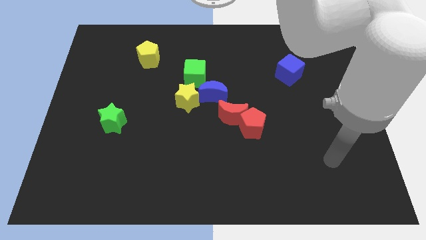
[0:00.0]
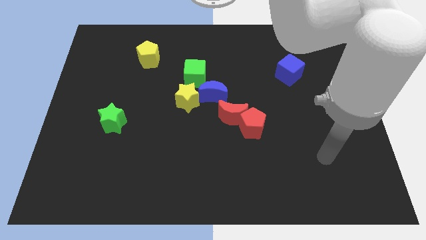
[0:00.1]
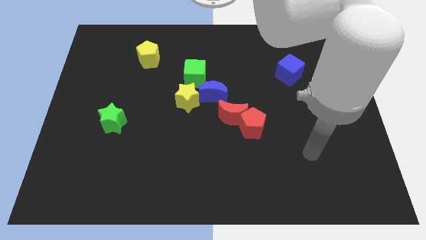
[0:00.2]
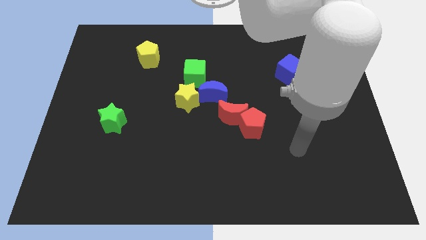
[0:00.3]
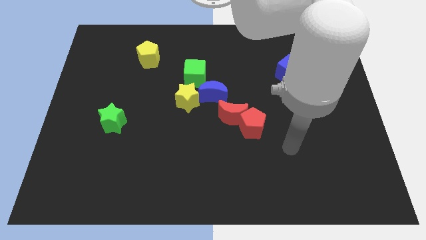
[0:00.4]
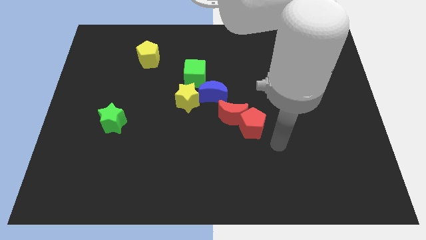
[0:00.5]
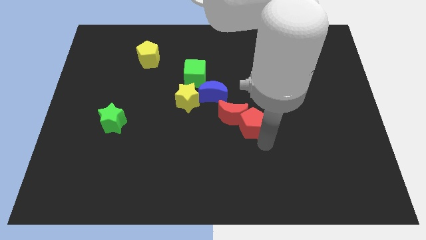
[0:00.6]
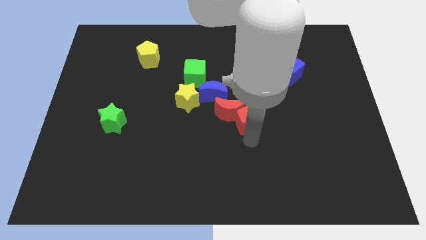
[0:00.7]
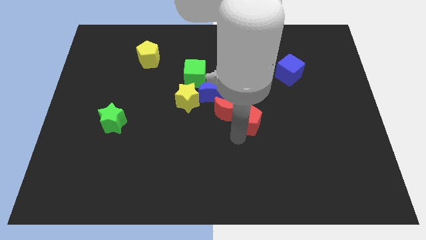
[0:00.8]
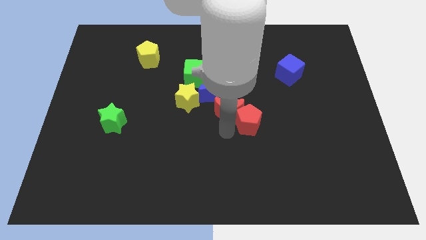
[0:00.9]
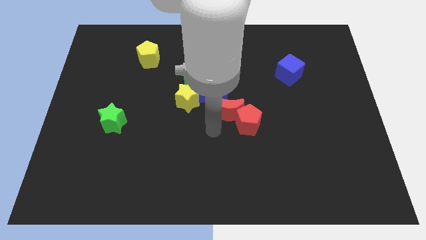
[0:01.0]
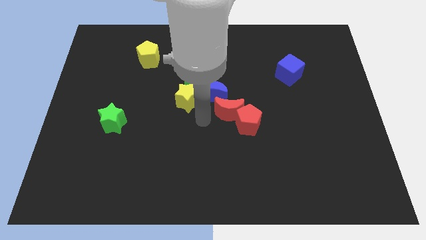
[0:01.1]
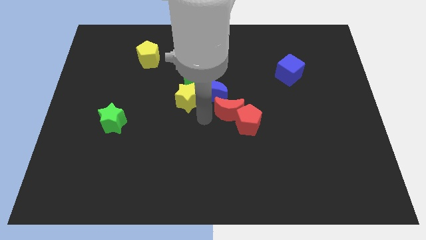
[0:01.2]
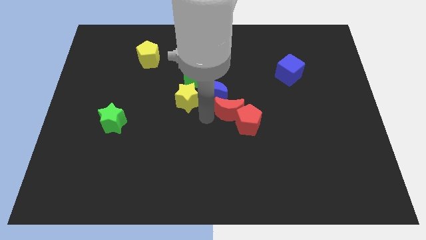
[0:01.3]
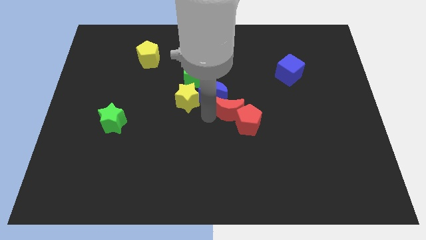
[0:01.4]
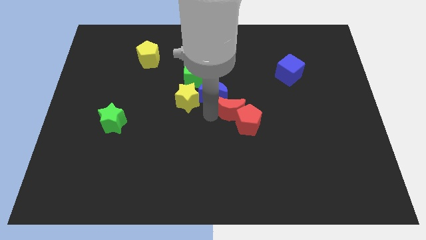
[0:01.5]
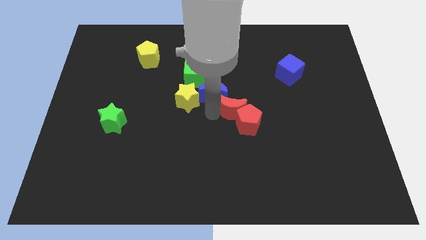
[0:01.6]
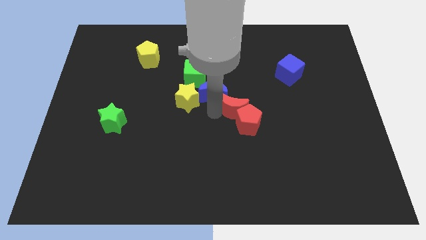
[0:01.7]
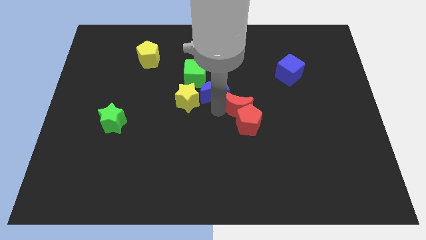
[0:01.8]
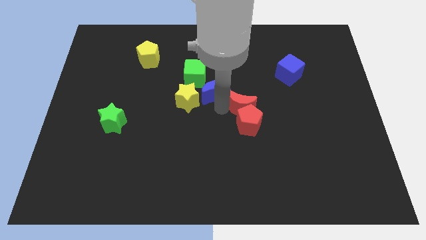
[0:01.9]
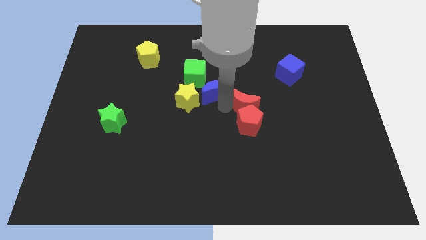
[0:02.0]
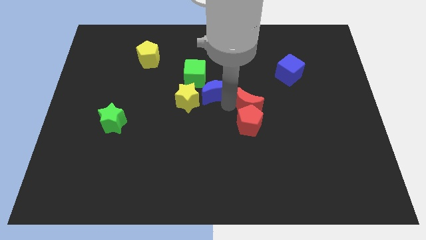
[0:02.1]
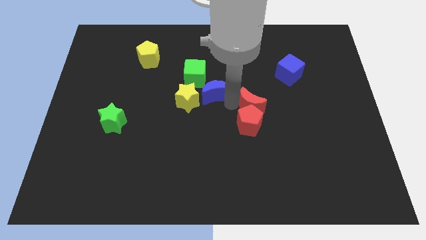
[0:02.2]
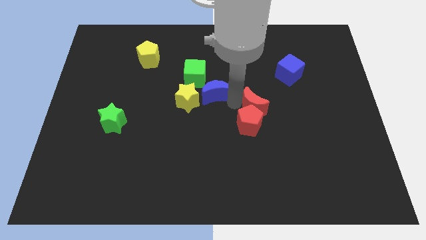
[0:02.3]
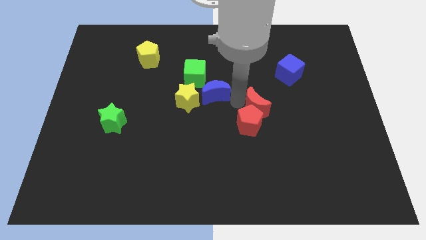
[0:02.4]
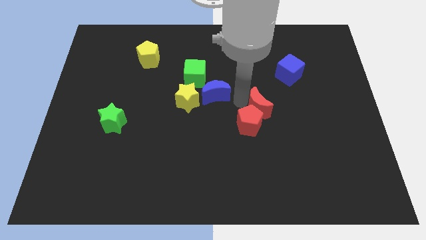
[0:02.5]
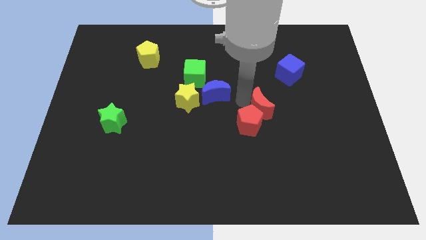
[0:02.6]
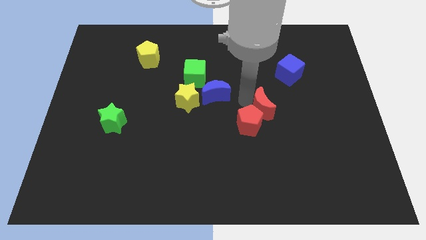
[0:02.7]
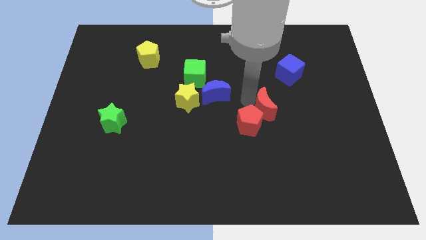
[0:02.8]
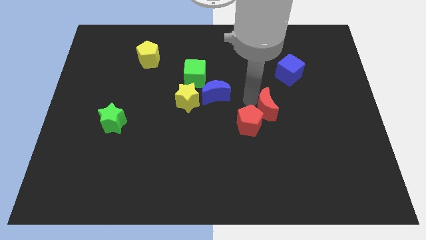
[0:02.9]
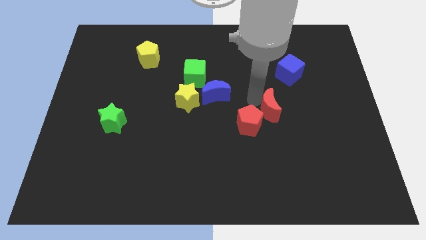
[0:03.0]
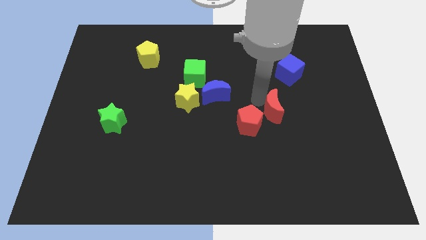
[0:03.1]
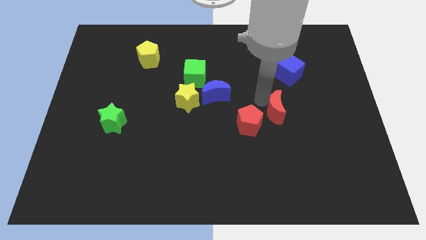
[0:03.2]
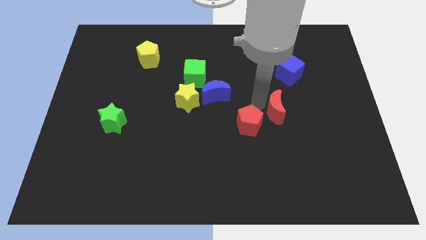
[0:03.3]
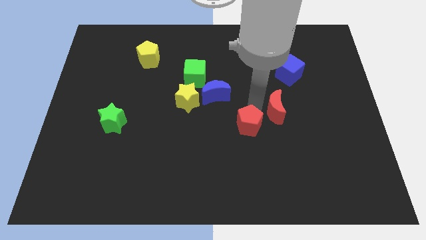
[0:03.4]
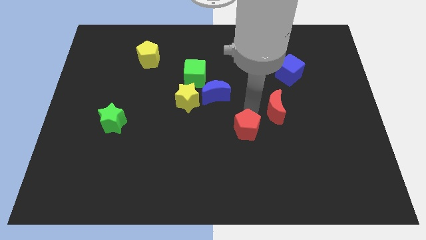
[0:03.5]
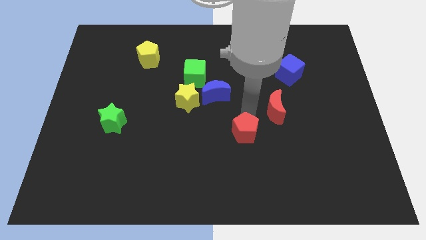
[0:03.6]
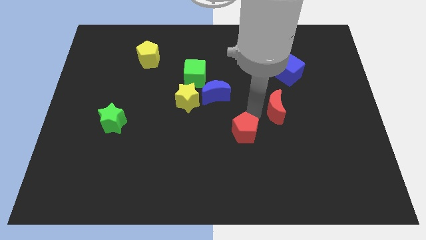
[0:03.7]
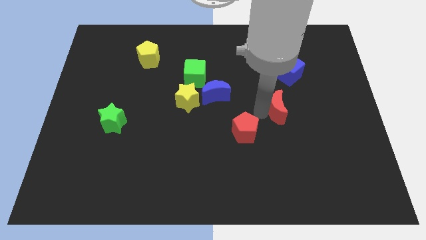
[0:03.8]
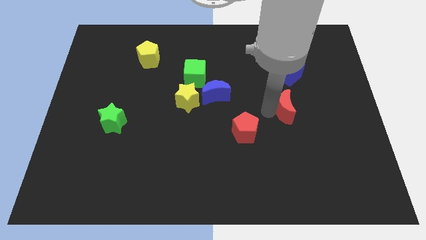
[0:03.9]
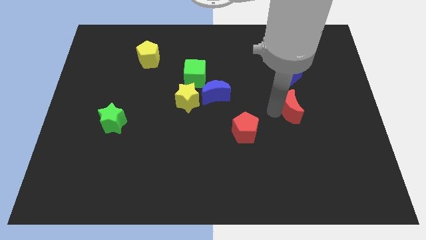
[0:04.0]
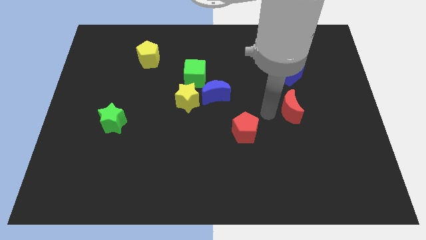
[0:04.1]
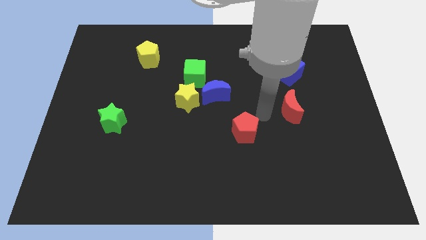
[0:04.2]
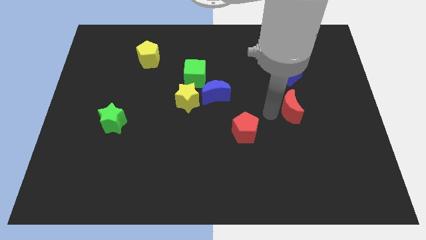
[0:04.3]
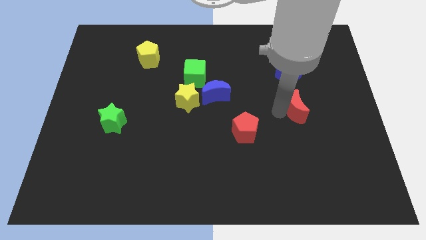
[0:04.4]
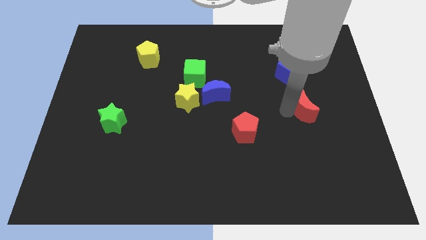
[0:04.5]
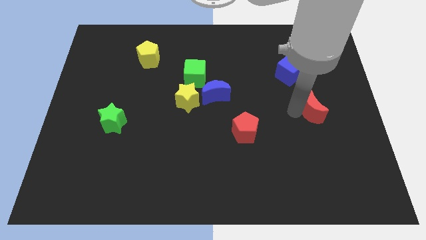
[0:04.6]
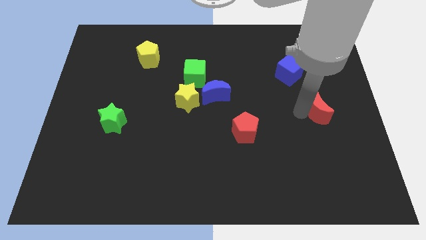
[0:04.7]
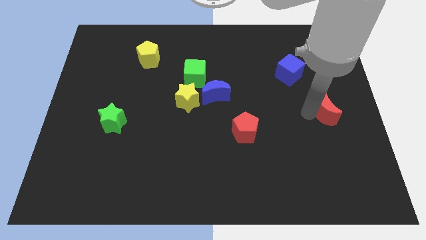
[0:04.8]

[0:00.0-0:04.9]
put the red moon to the right side

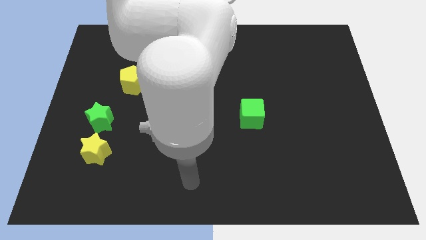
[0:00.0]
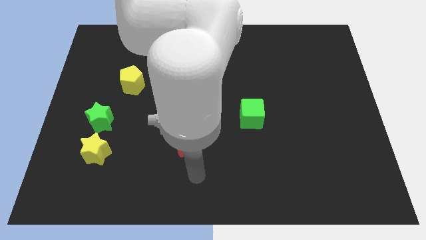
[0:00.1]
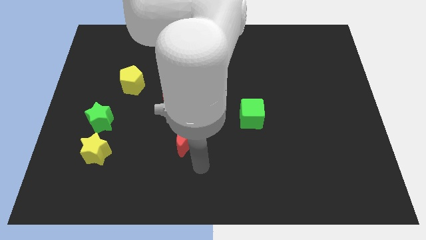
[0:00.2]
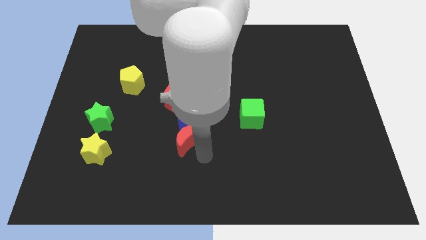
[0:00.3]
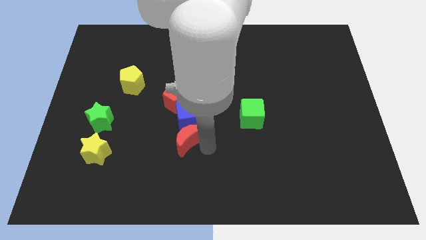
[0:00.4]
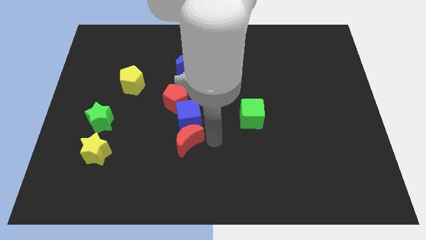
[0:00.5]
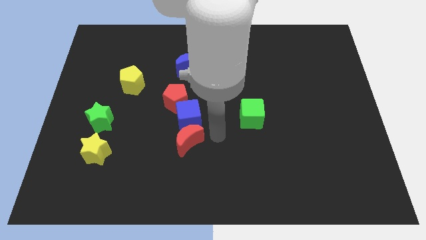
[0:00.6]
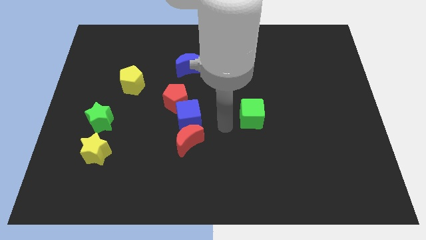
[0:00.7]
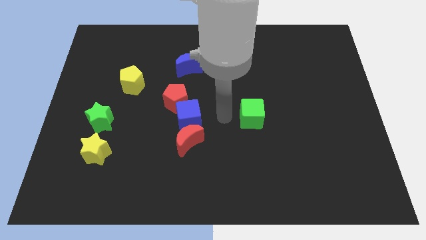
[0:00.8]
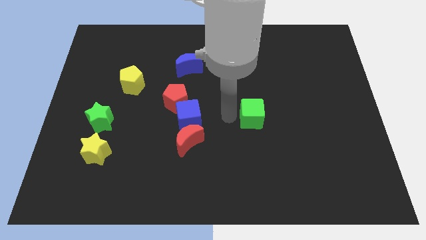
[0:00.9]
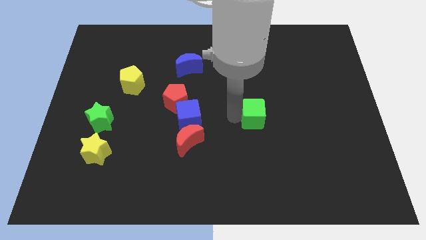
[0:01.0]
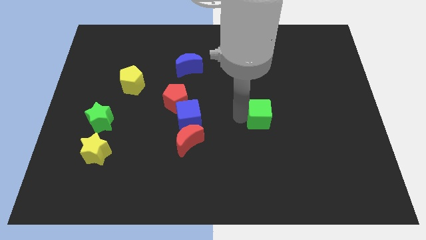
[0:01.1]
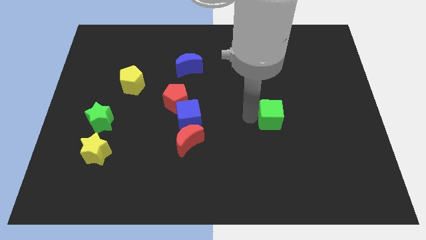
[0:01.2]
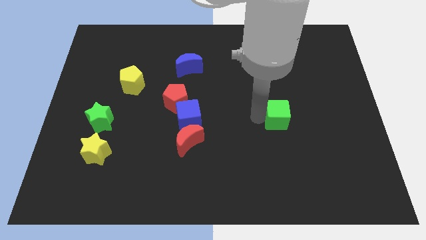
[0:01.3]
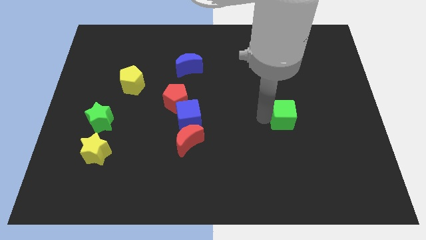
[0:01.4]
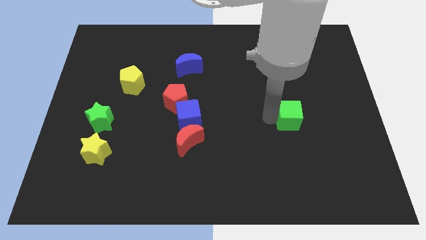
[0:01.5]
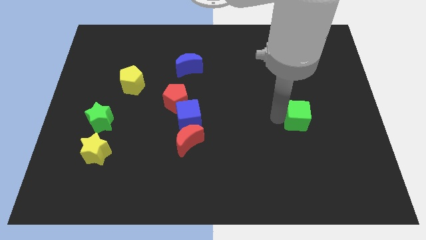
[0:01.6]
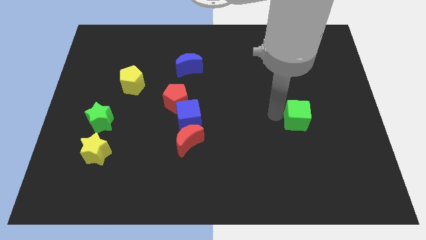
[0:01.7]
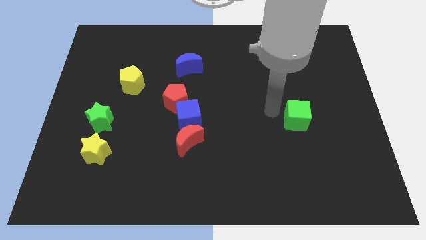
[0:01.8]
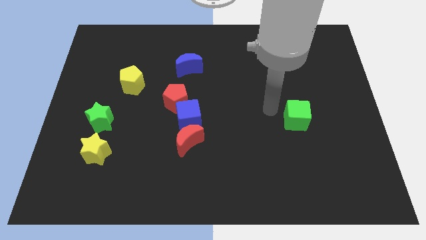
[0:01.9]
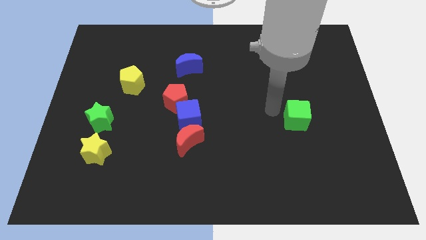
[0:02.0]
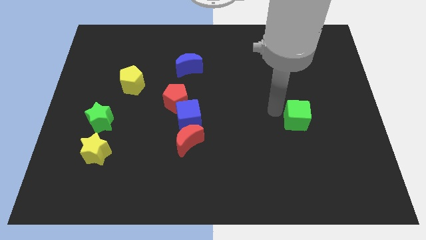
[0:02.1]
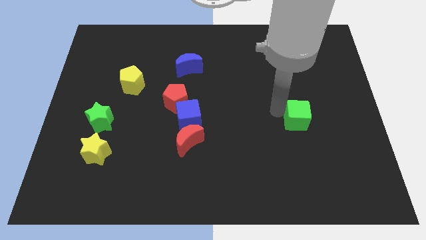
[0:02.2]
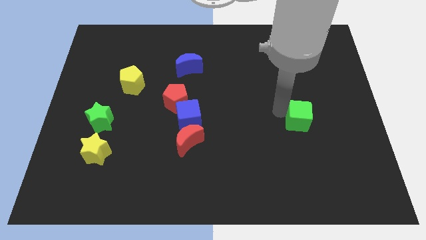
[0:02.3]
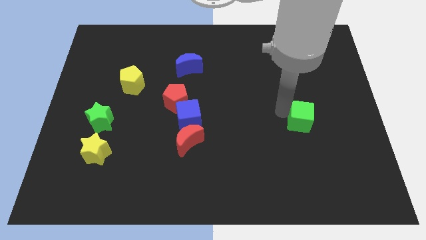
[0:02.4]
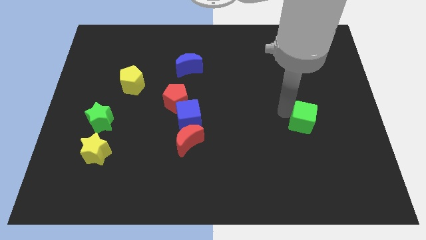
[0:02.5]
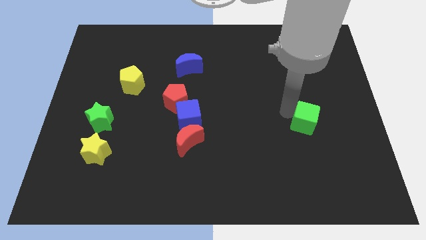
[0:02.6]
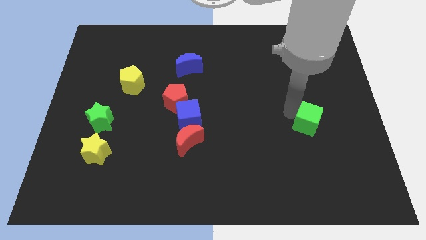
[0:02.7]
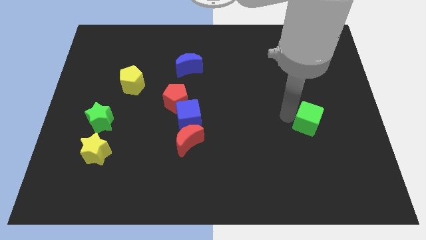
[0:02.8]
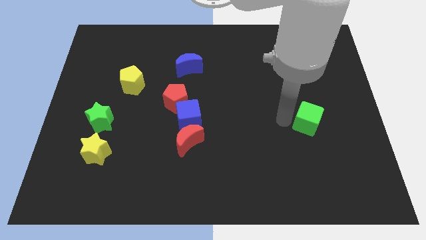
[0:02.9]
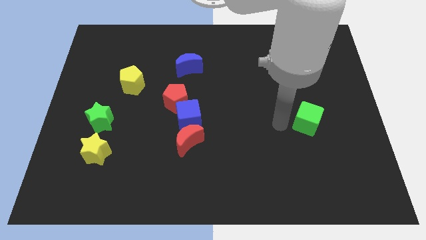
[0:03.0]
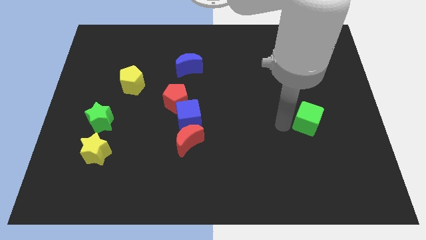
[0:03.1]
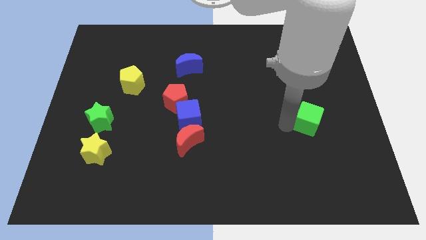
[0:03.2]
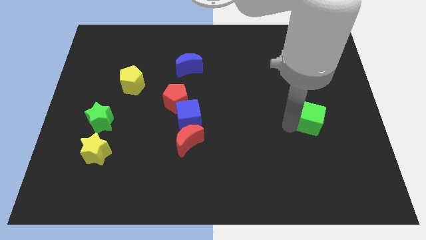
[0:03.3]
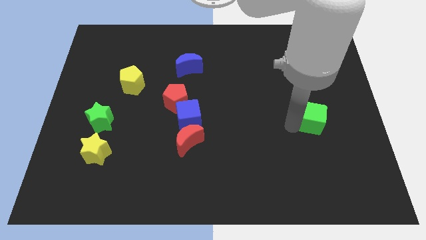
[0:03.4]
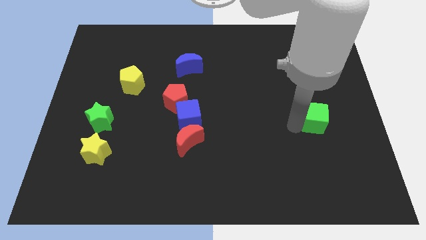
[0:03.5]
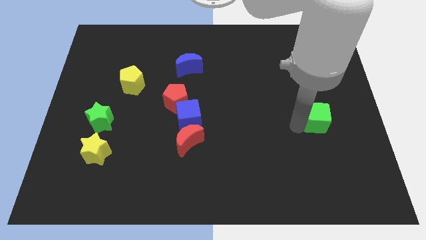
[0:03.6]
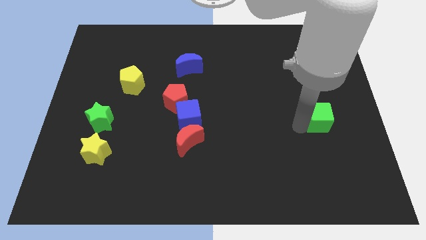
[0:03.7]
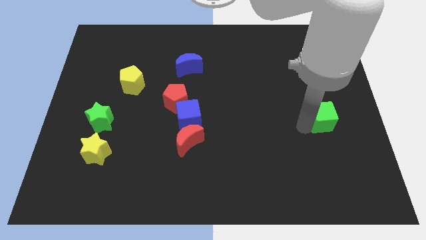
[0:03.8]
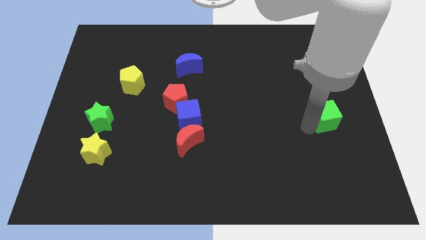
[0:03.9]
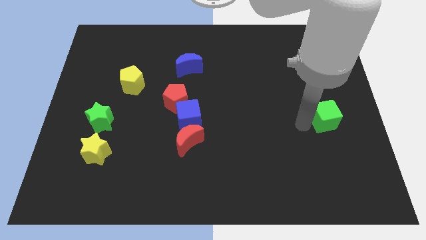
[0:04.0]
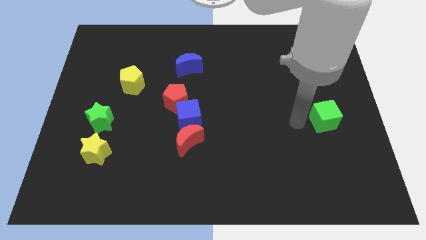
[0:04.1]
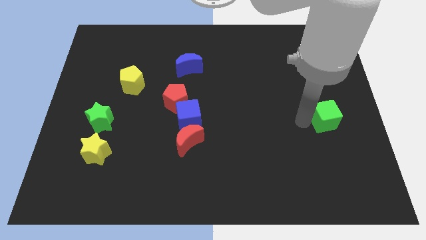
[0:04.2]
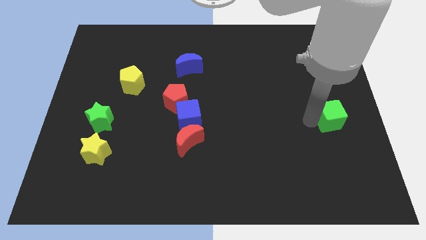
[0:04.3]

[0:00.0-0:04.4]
push the green cube to the right side of the board
